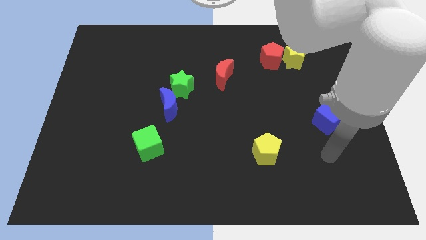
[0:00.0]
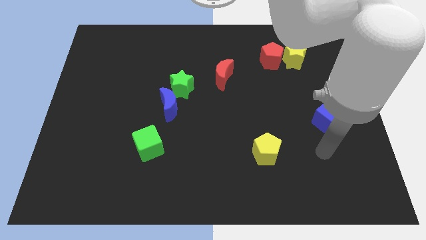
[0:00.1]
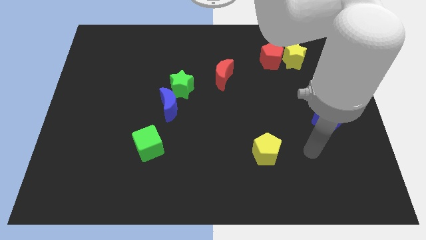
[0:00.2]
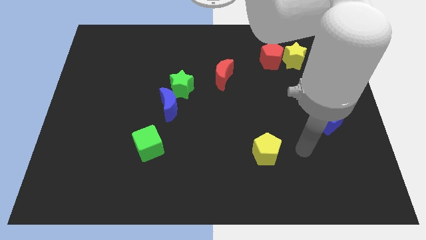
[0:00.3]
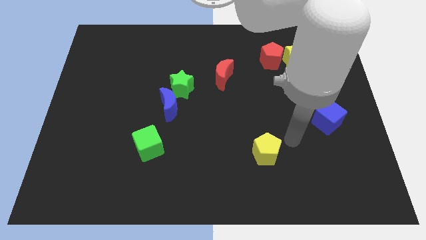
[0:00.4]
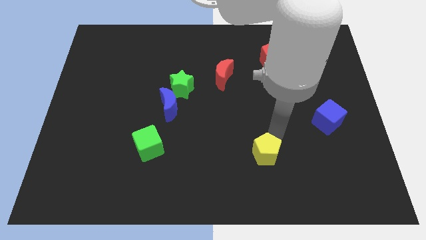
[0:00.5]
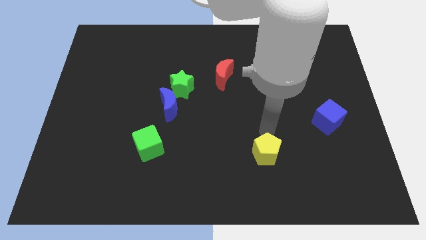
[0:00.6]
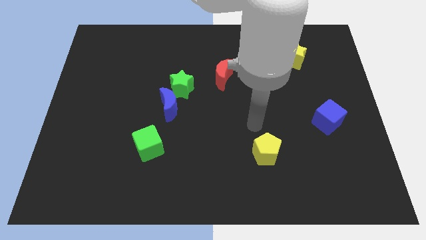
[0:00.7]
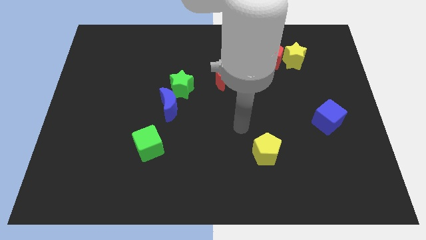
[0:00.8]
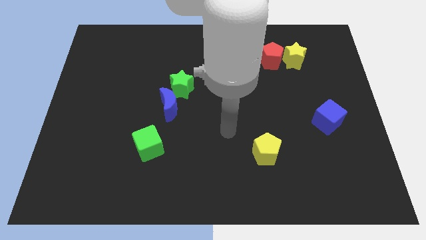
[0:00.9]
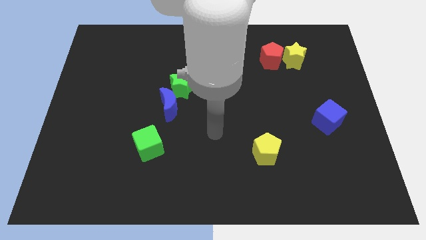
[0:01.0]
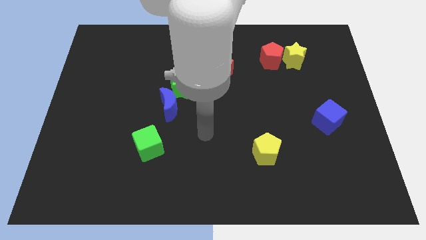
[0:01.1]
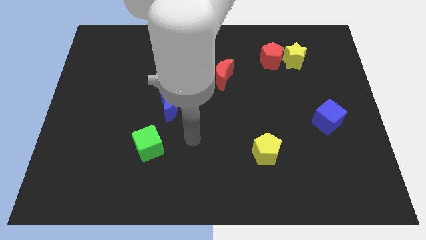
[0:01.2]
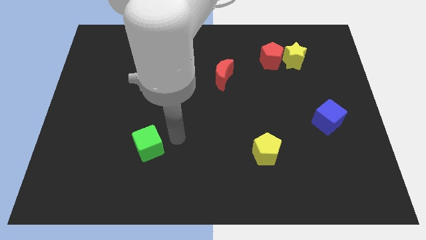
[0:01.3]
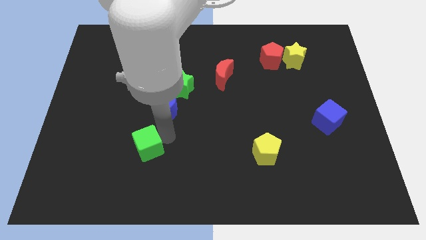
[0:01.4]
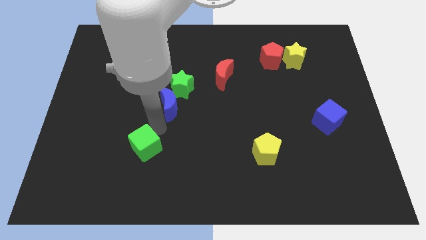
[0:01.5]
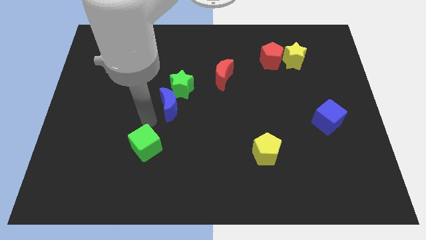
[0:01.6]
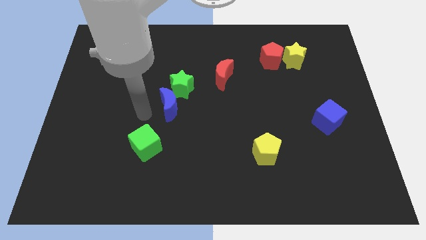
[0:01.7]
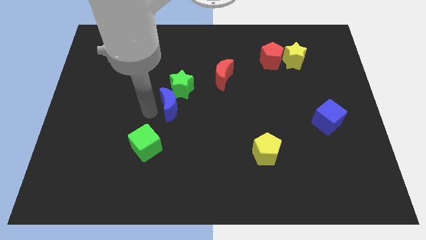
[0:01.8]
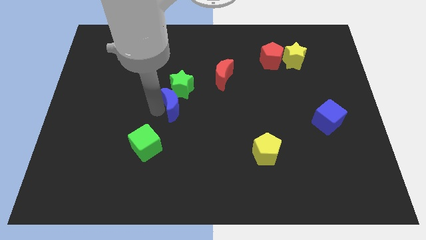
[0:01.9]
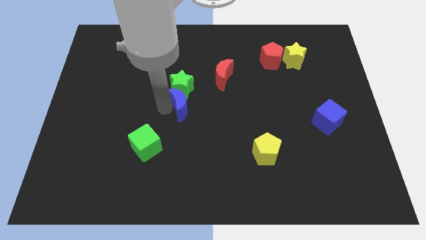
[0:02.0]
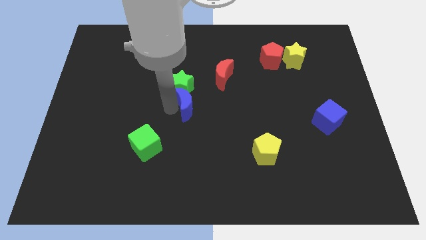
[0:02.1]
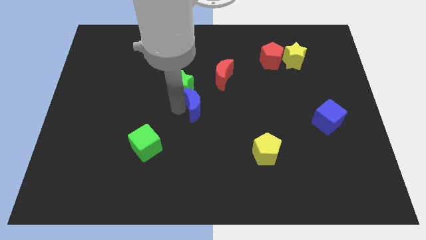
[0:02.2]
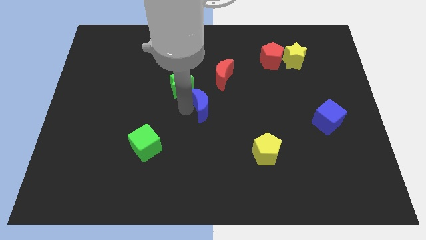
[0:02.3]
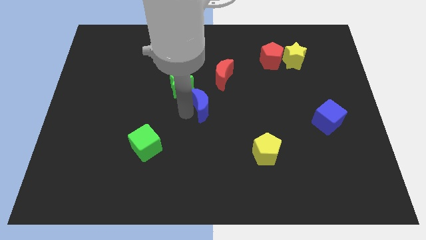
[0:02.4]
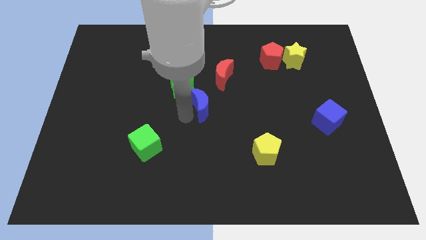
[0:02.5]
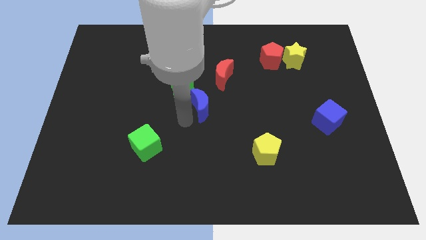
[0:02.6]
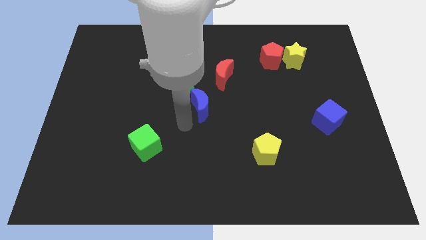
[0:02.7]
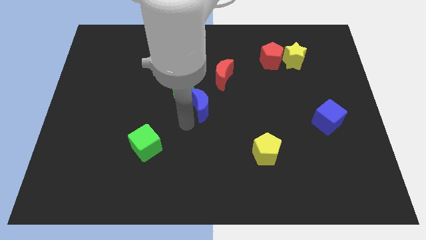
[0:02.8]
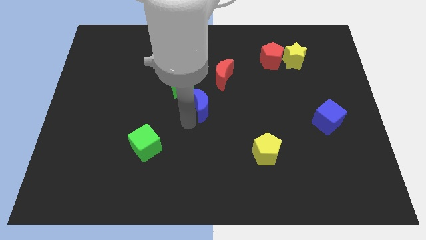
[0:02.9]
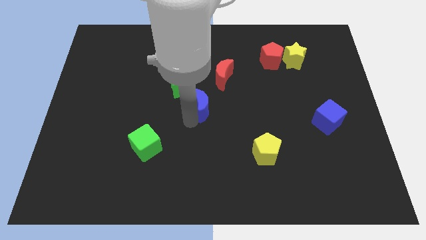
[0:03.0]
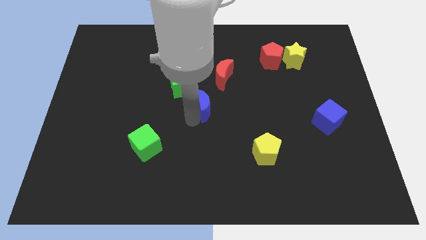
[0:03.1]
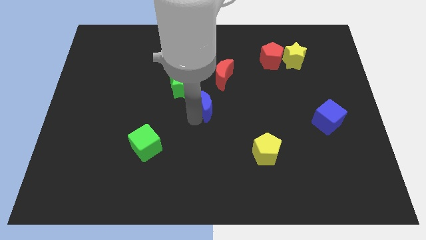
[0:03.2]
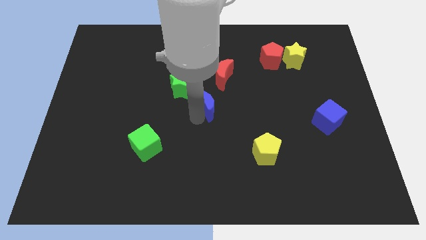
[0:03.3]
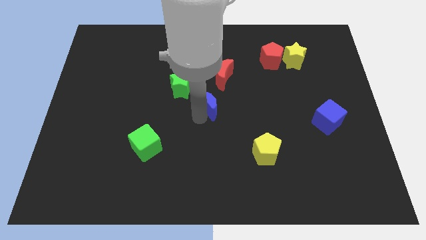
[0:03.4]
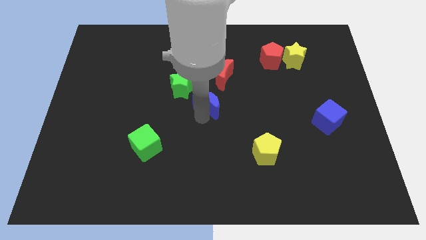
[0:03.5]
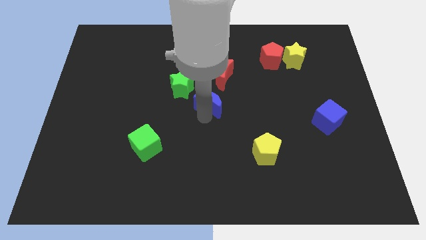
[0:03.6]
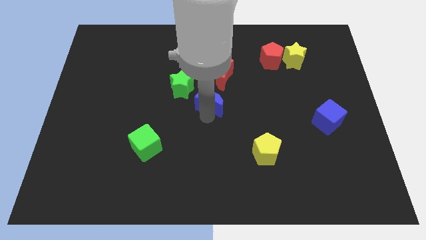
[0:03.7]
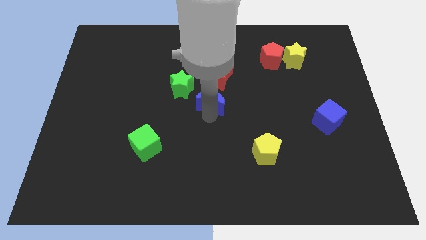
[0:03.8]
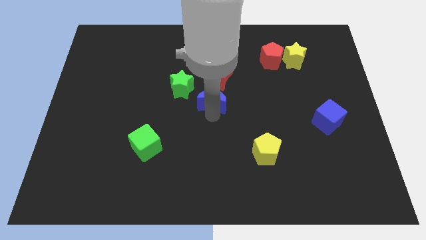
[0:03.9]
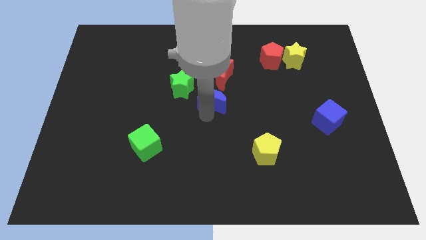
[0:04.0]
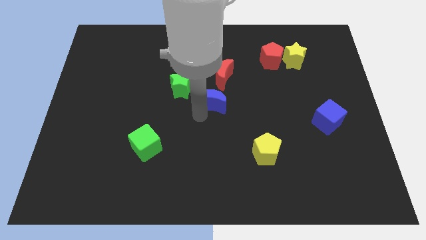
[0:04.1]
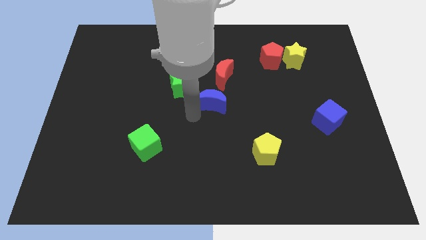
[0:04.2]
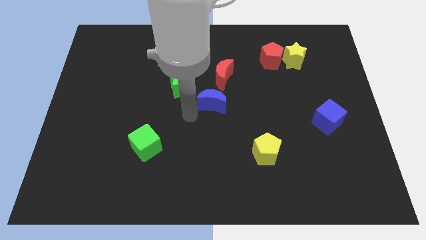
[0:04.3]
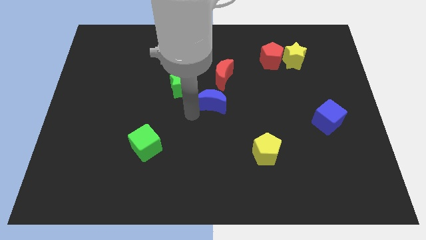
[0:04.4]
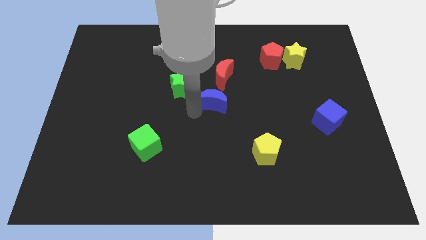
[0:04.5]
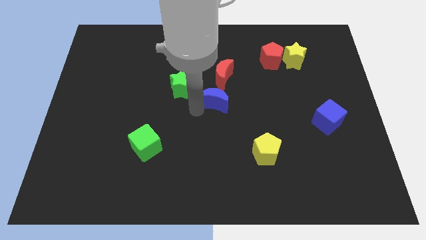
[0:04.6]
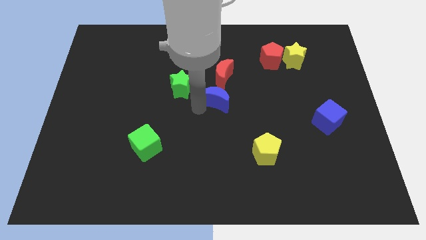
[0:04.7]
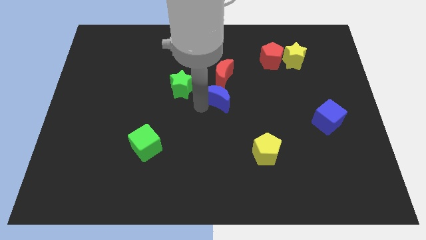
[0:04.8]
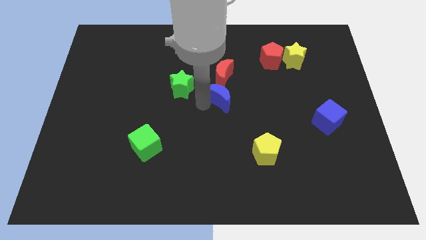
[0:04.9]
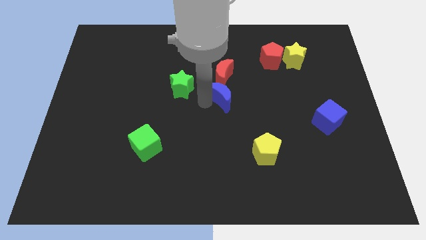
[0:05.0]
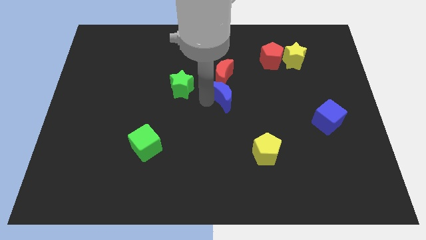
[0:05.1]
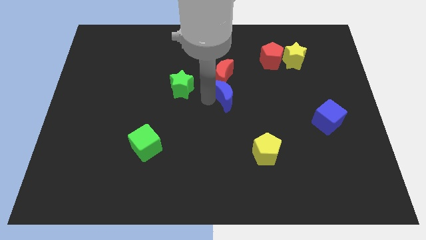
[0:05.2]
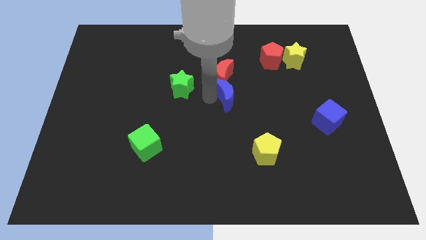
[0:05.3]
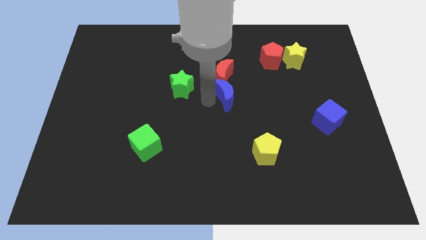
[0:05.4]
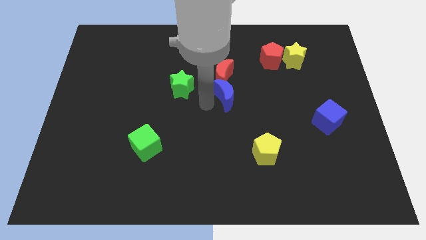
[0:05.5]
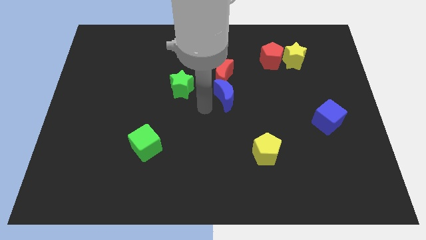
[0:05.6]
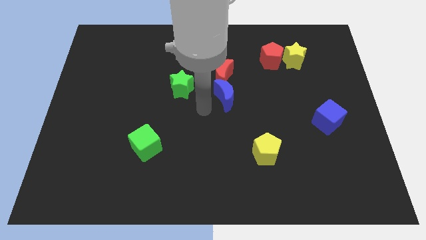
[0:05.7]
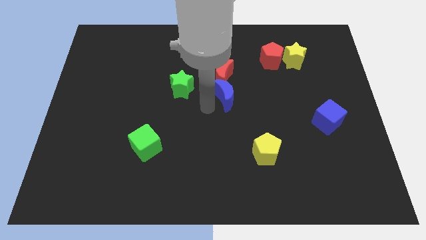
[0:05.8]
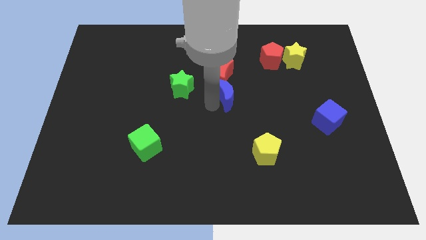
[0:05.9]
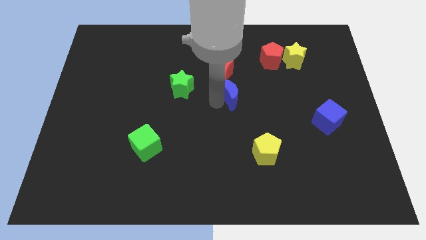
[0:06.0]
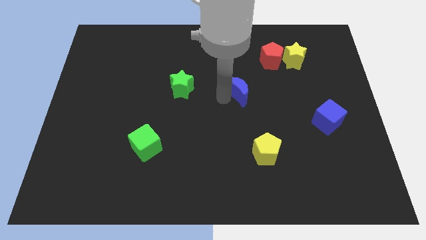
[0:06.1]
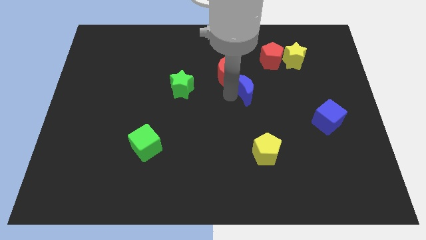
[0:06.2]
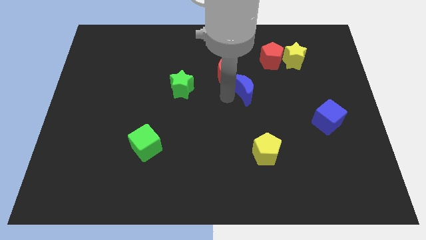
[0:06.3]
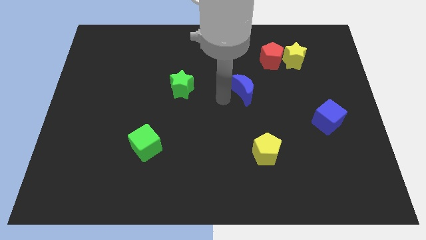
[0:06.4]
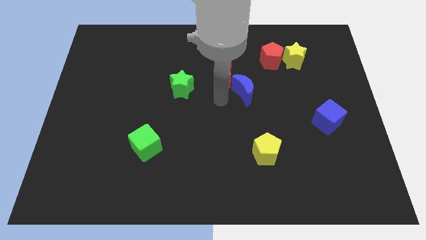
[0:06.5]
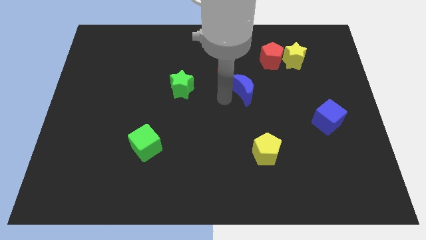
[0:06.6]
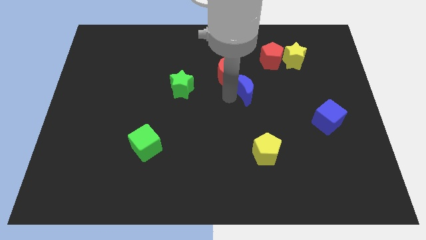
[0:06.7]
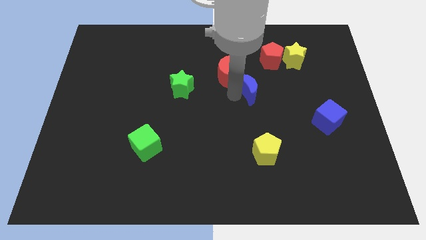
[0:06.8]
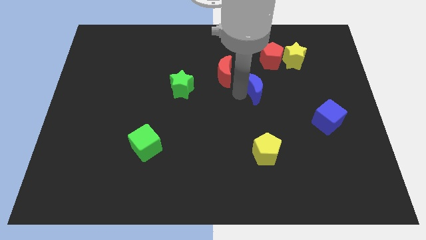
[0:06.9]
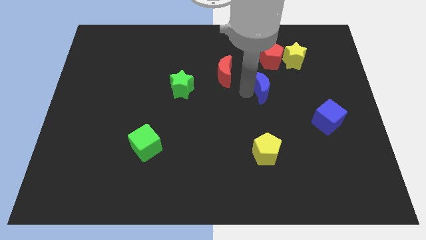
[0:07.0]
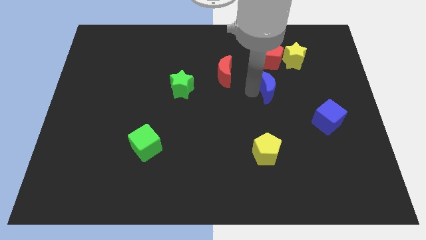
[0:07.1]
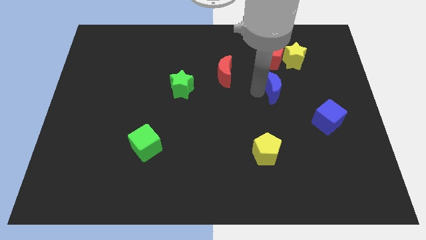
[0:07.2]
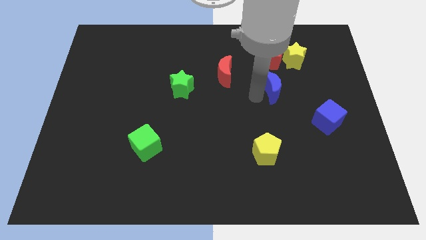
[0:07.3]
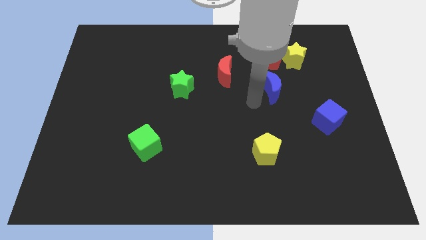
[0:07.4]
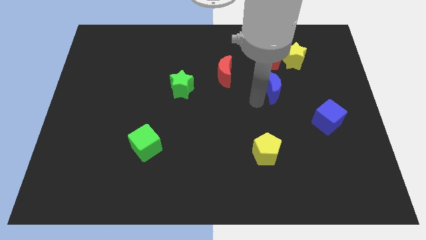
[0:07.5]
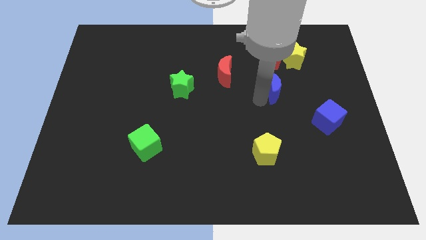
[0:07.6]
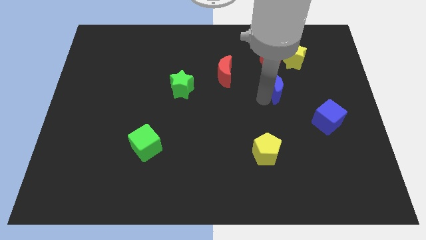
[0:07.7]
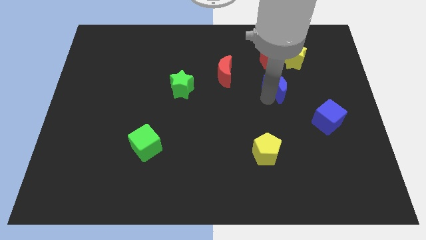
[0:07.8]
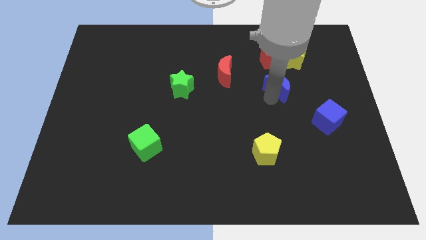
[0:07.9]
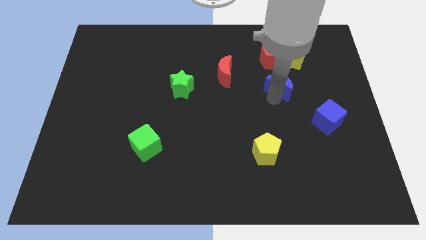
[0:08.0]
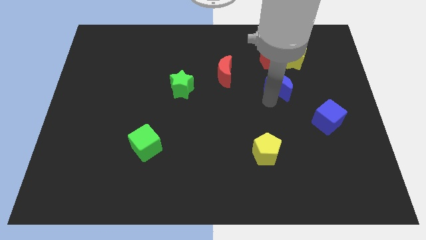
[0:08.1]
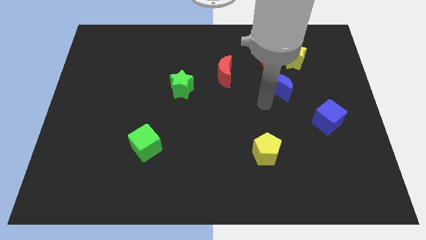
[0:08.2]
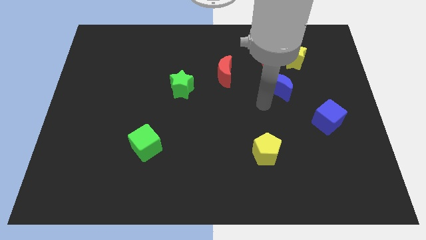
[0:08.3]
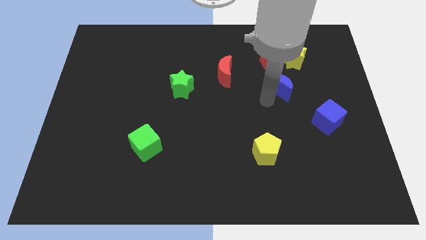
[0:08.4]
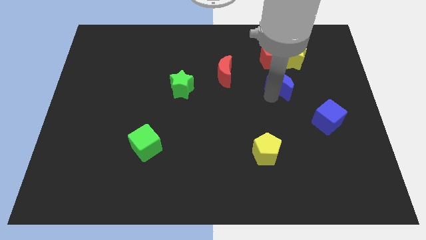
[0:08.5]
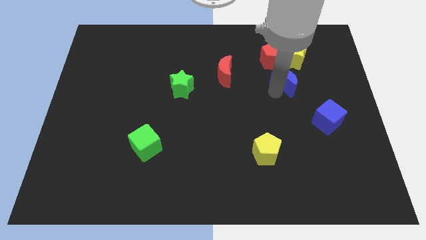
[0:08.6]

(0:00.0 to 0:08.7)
slide the blue moon diagonally down and to the right of the red pentagon
